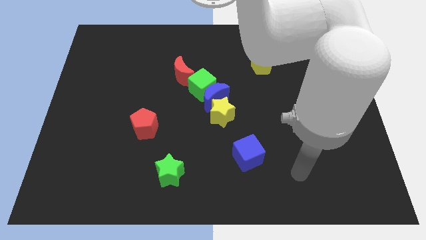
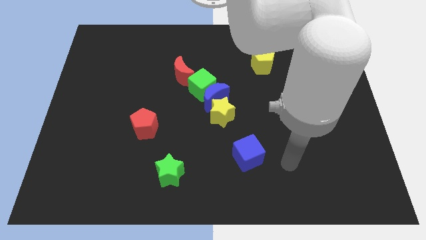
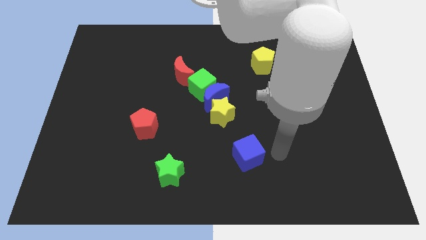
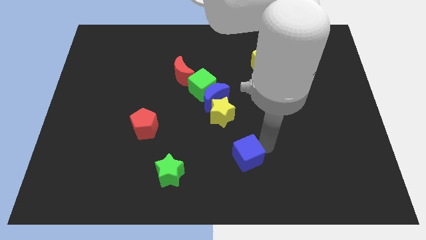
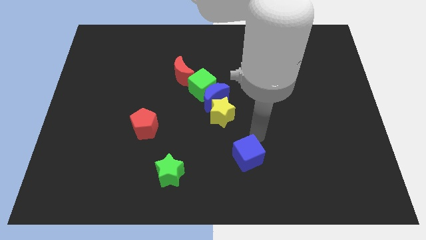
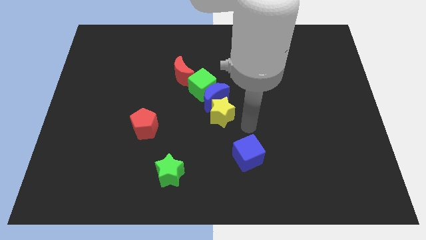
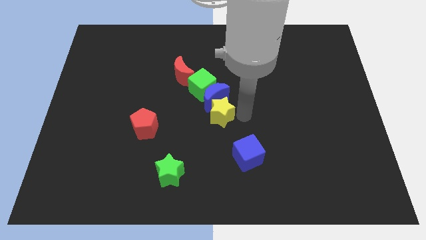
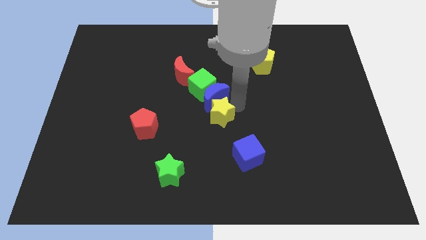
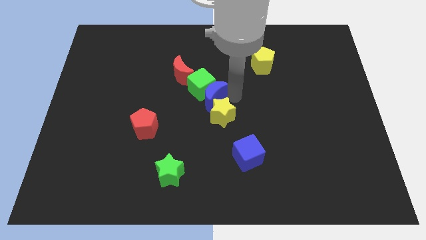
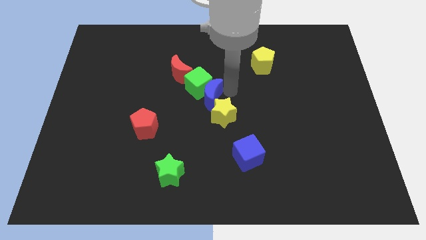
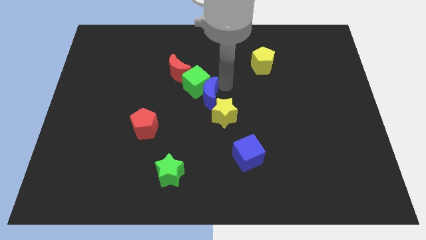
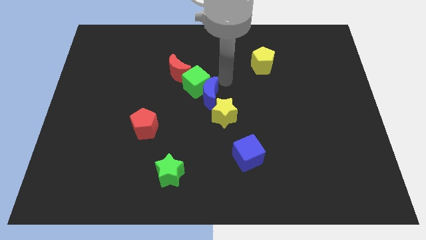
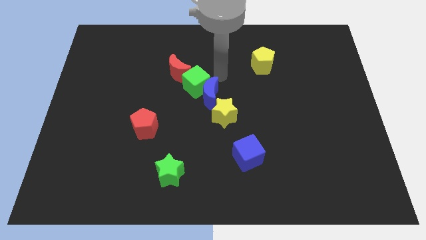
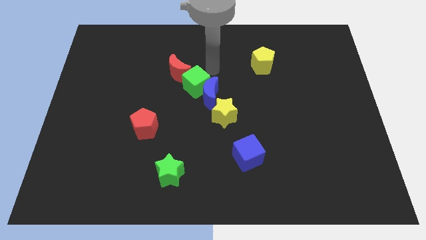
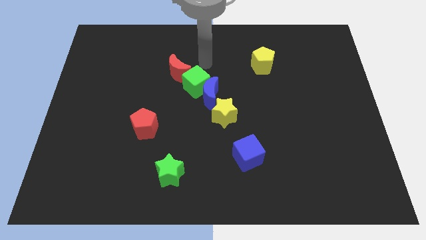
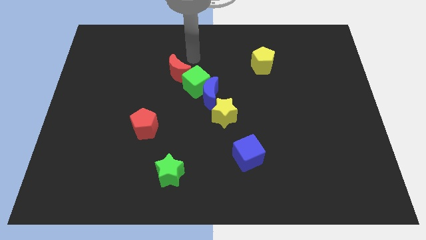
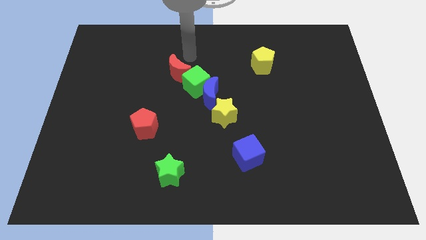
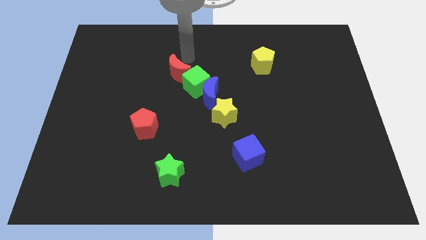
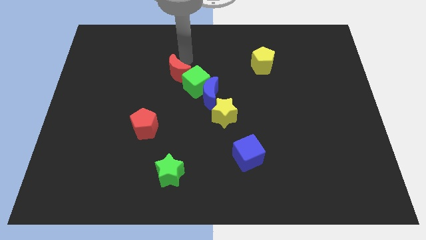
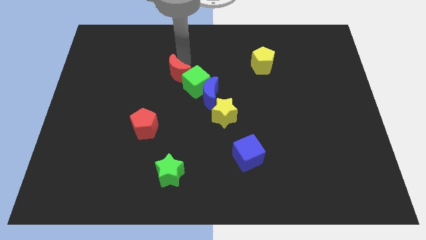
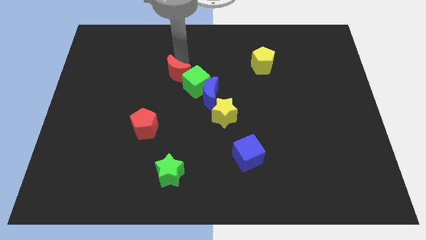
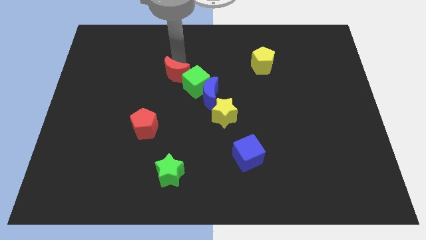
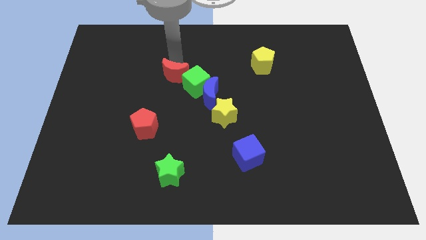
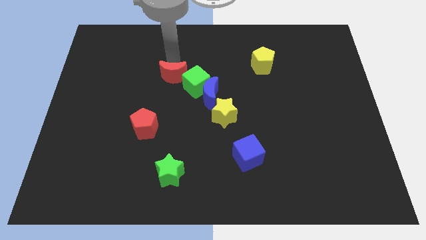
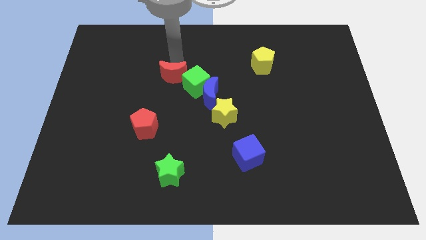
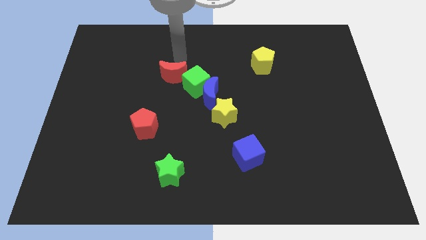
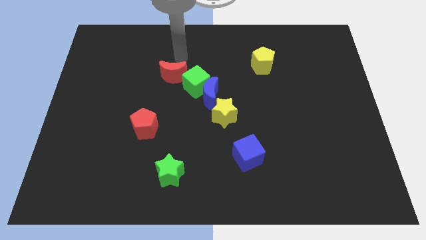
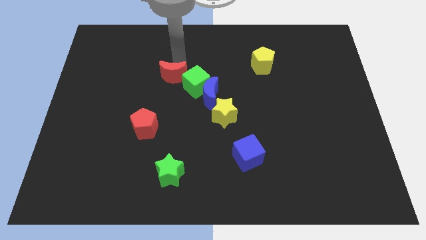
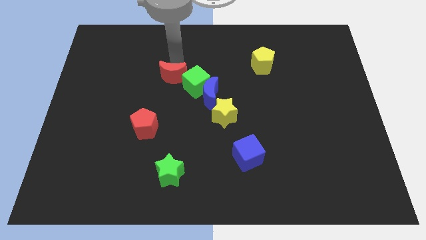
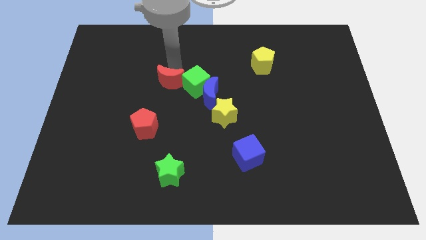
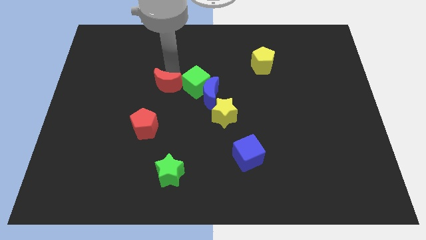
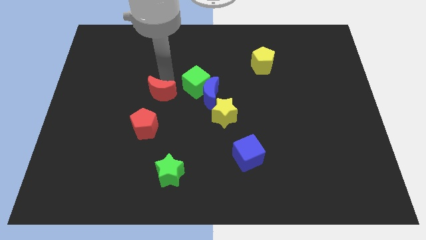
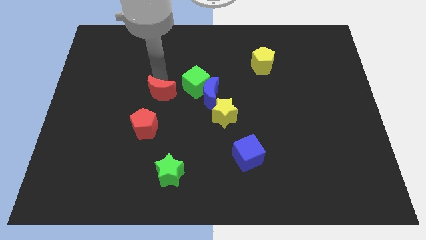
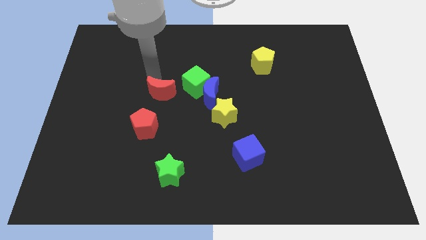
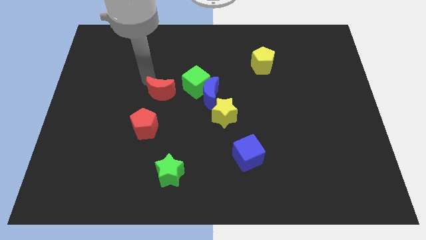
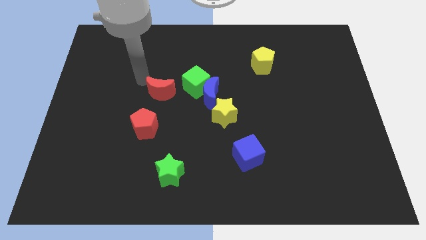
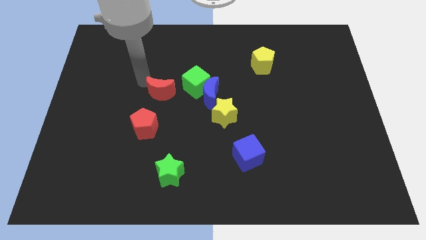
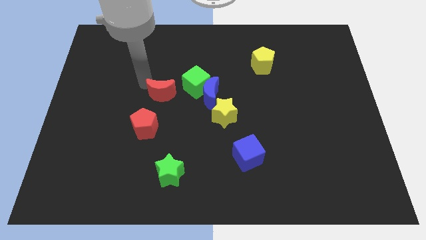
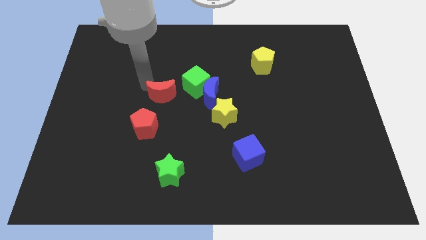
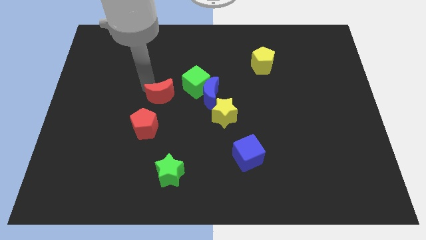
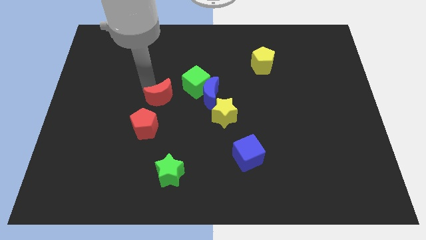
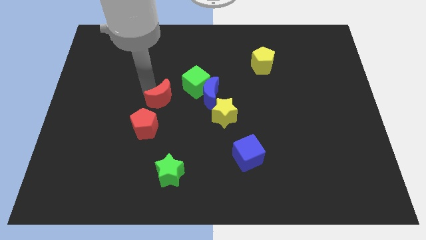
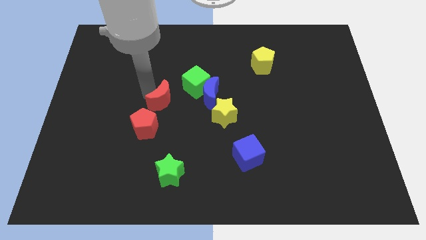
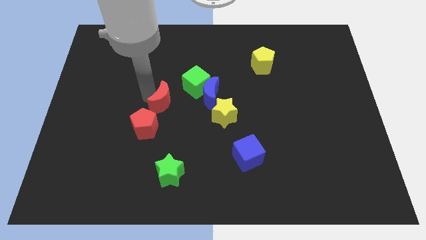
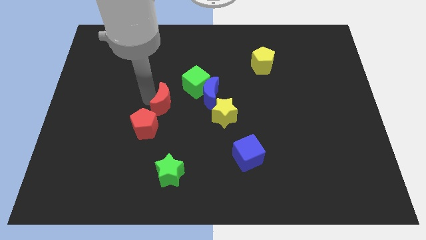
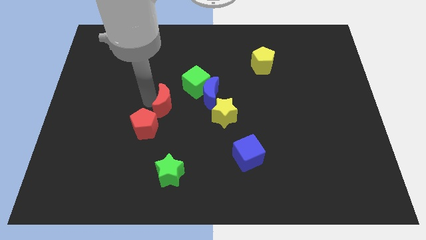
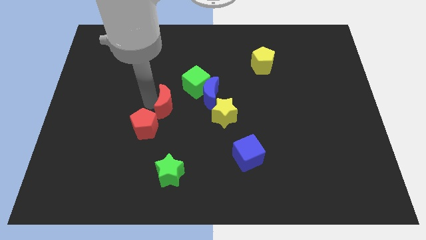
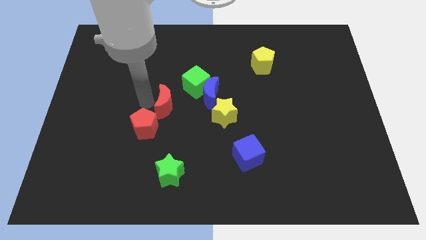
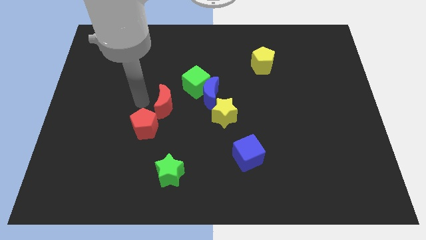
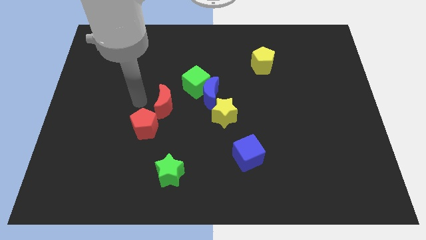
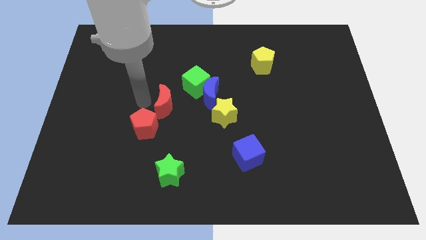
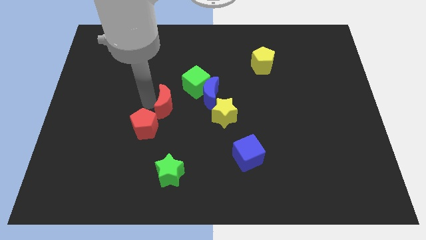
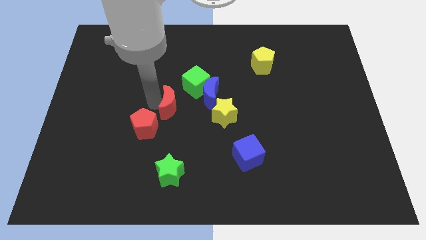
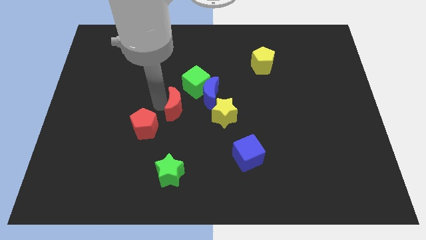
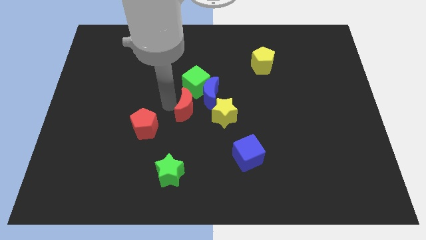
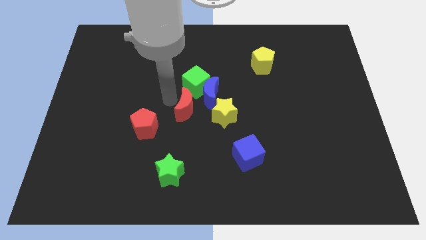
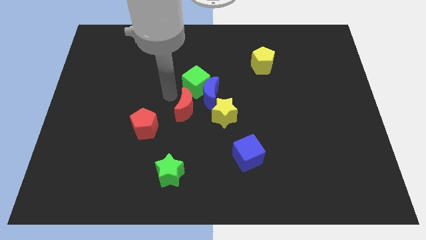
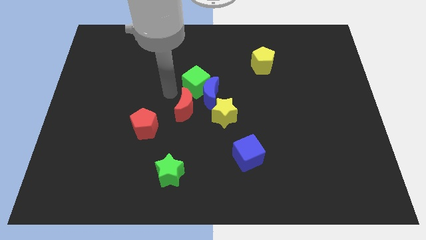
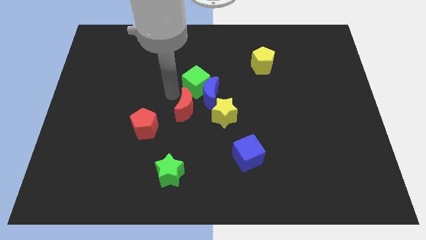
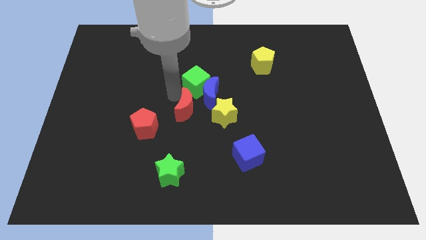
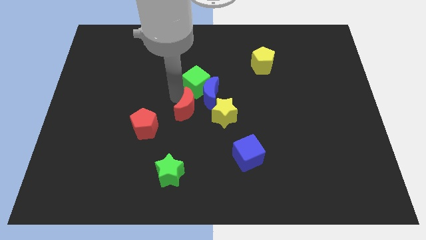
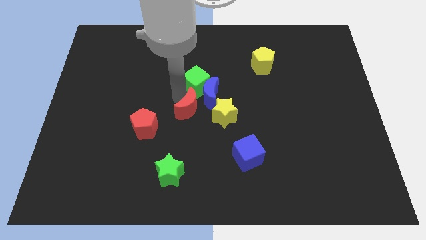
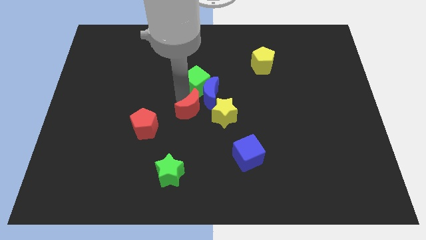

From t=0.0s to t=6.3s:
move the red moon below the blue moon

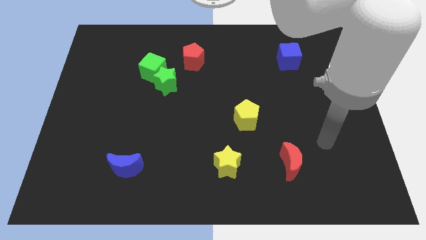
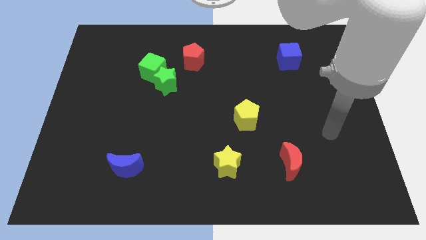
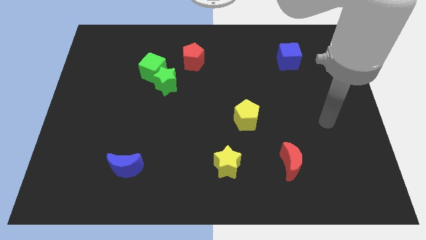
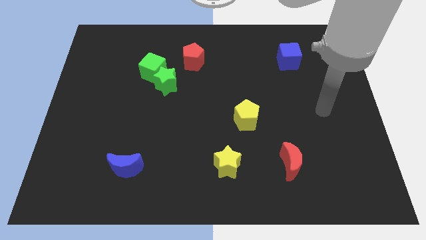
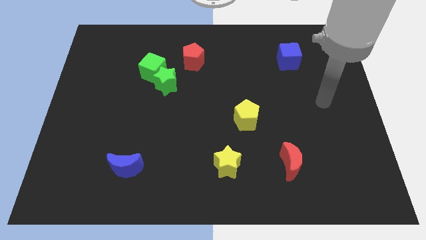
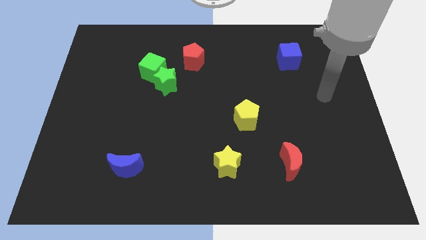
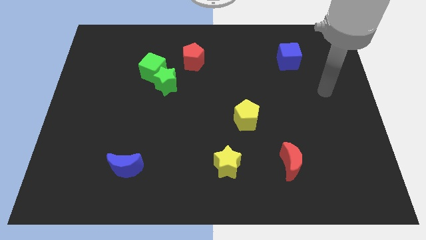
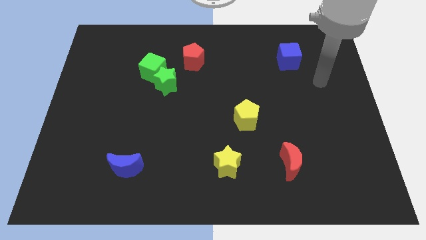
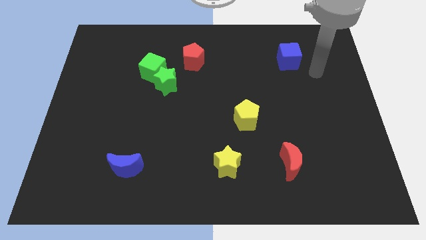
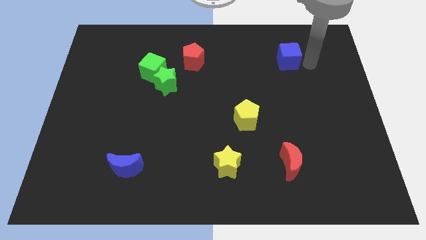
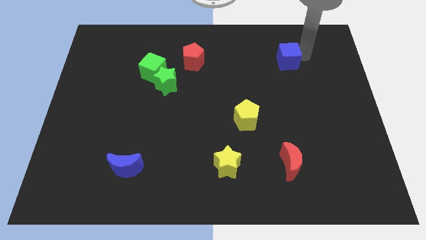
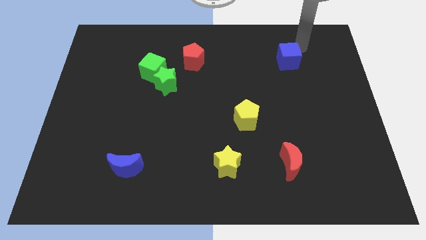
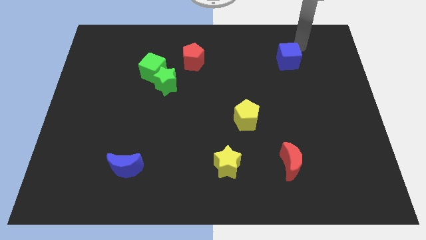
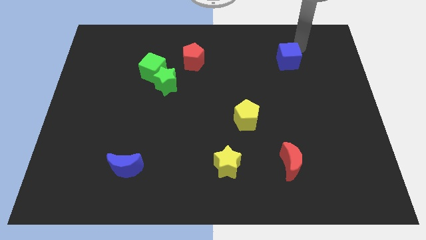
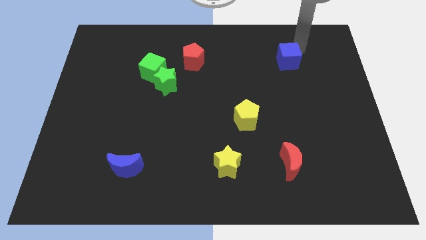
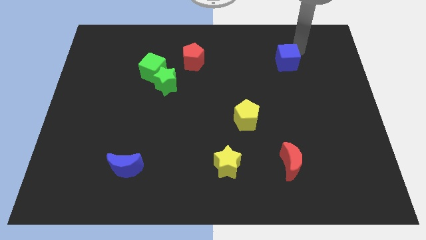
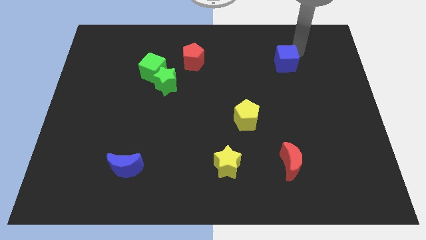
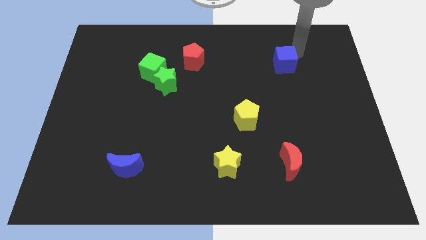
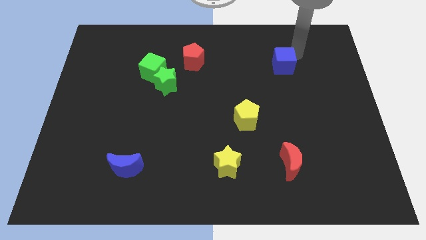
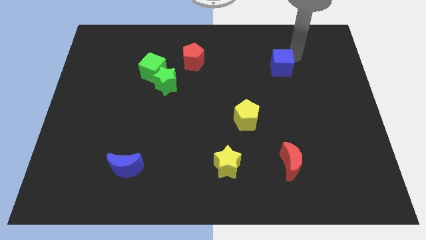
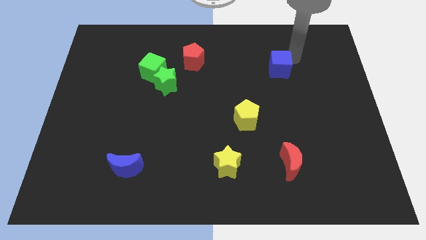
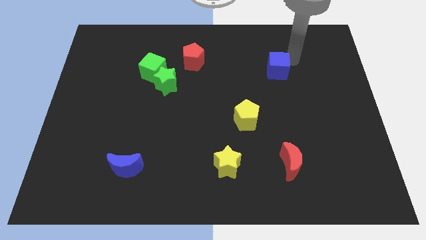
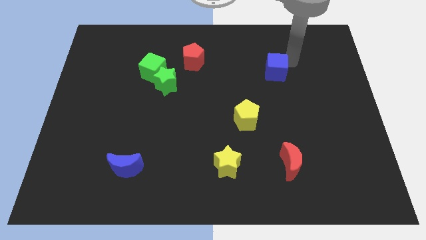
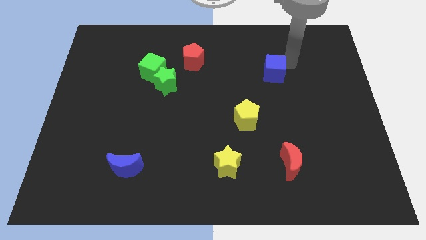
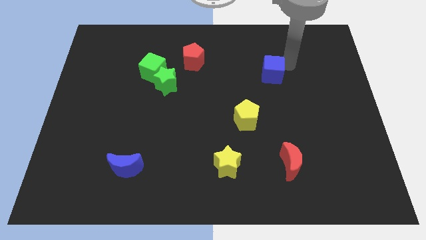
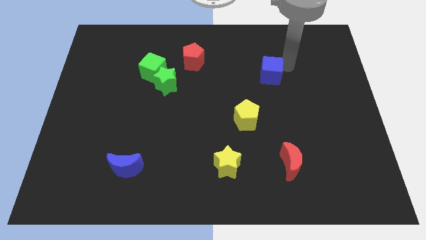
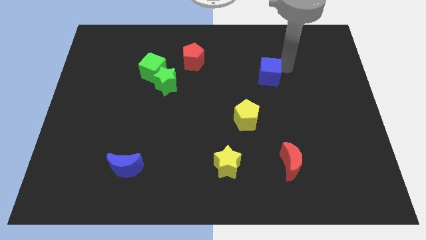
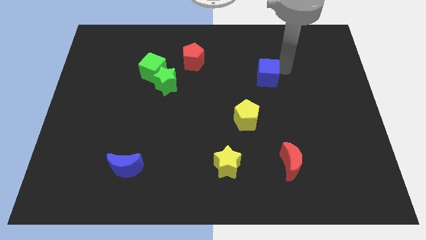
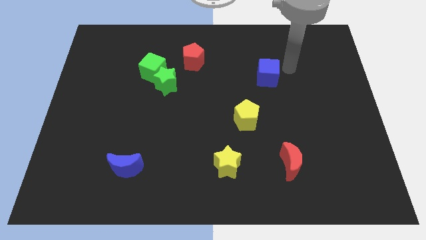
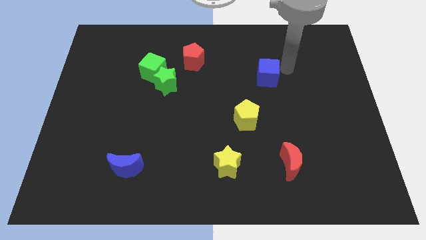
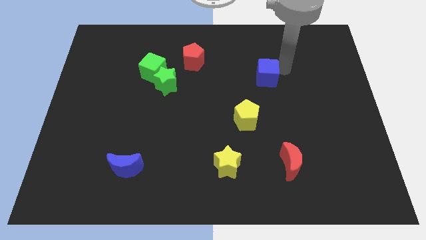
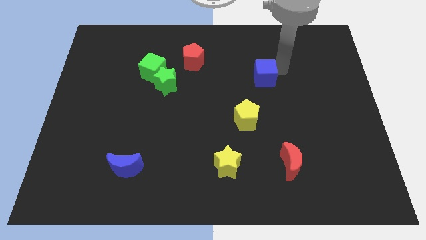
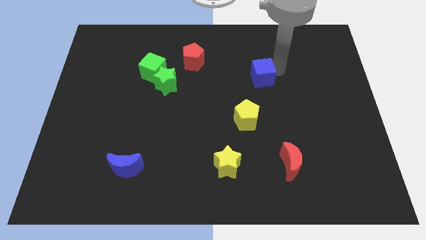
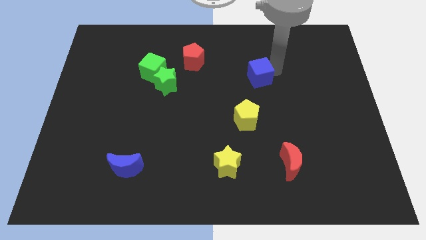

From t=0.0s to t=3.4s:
move the blue cube to the top side of the yellow pentagon
